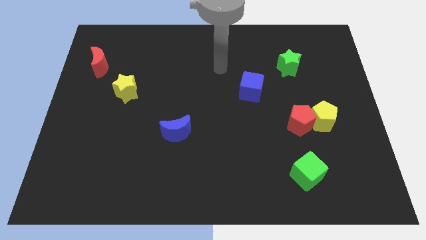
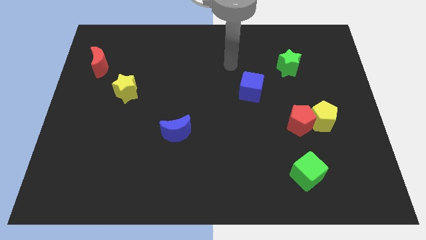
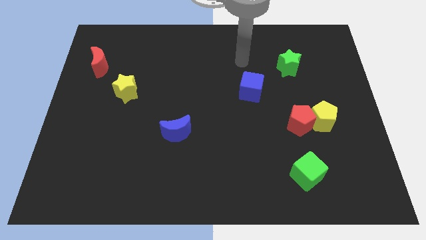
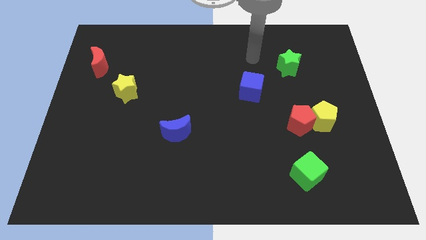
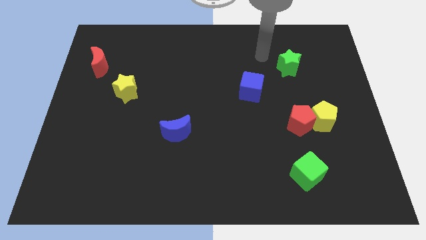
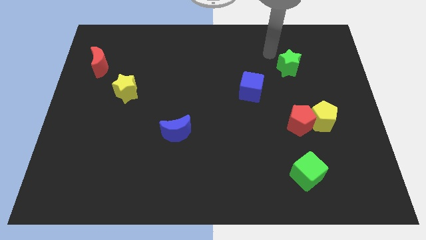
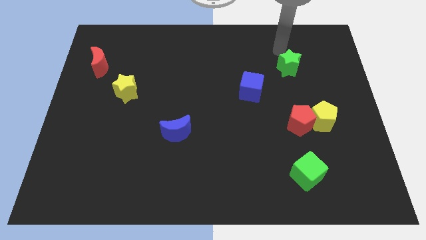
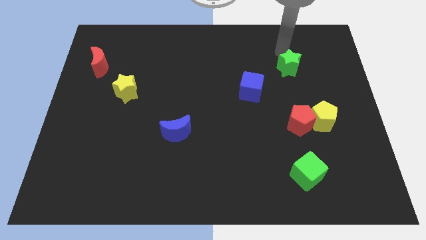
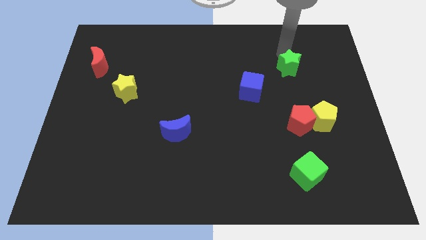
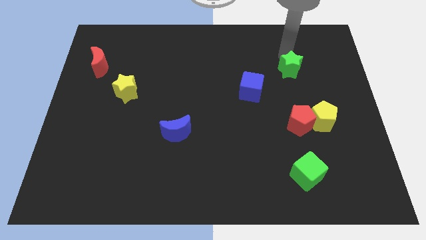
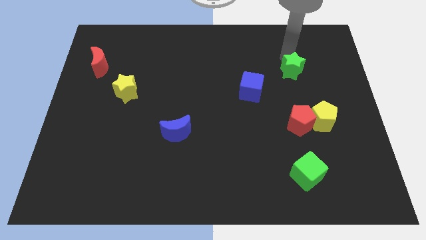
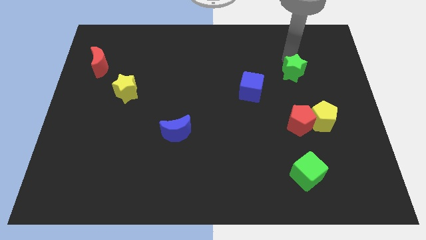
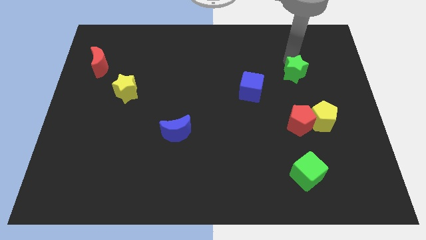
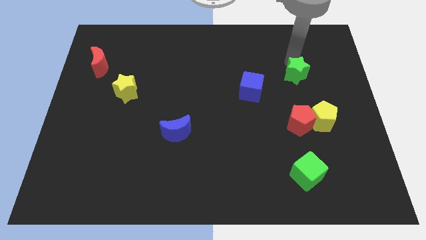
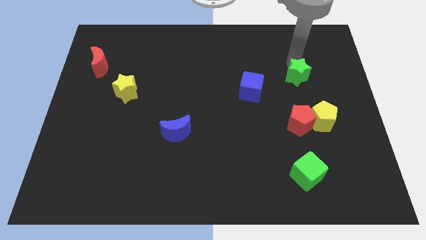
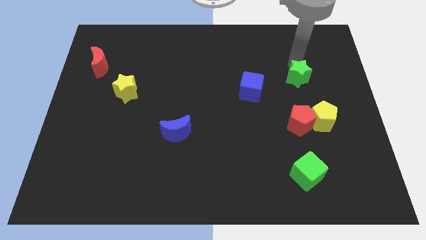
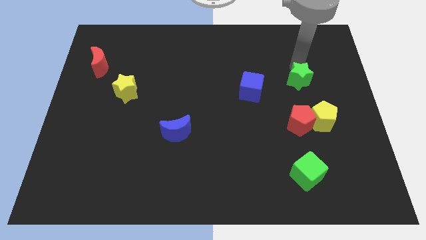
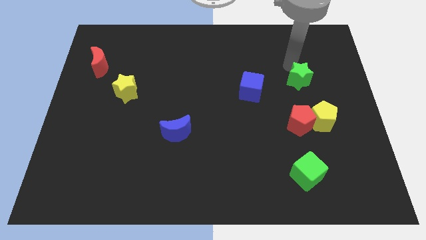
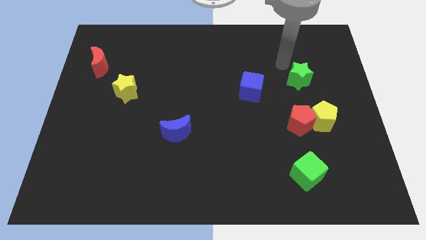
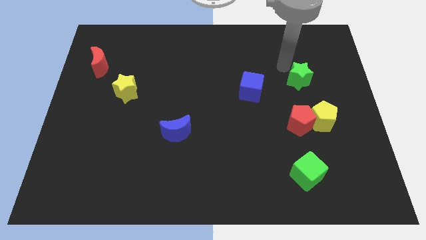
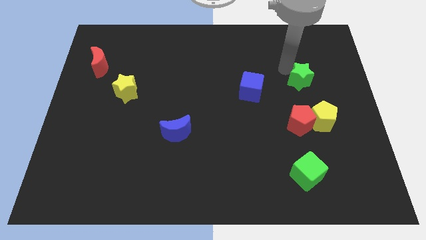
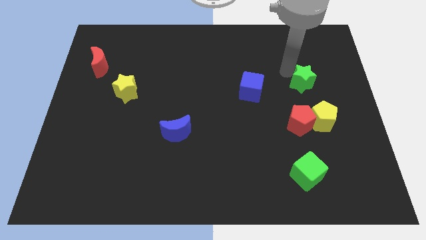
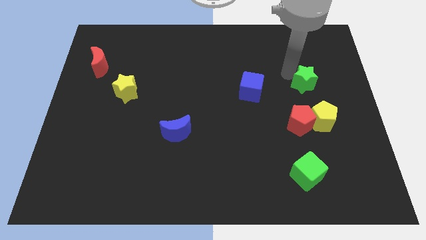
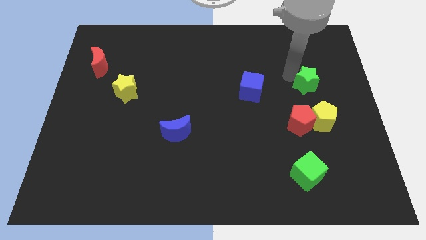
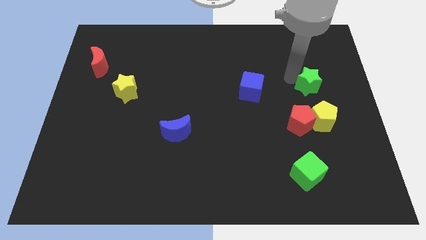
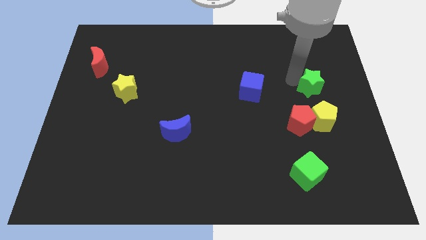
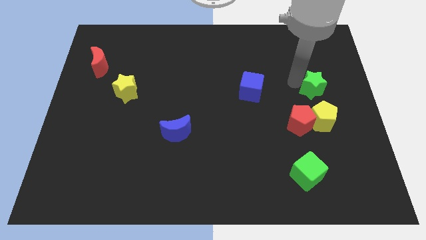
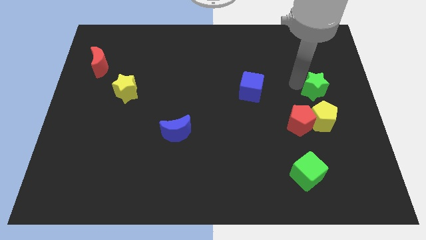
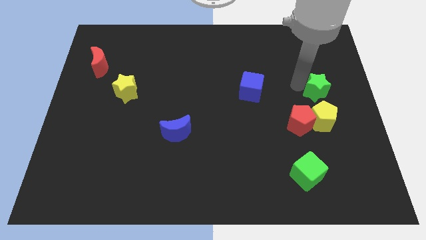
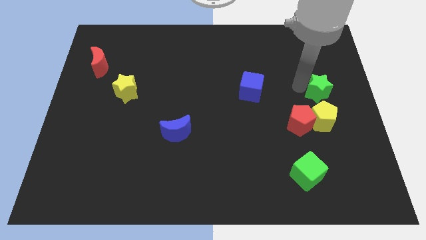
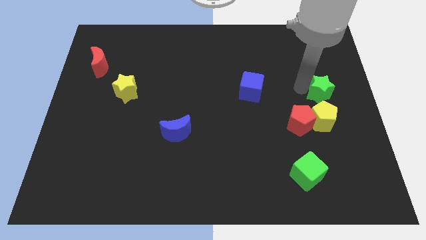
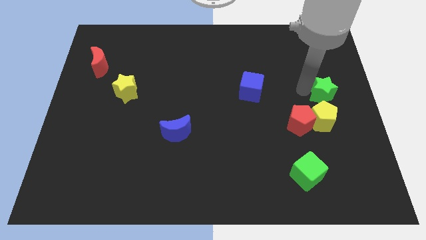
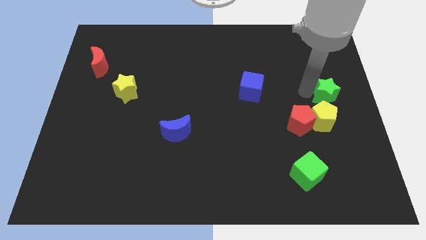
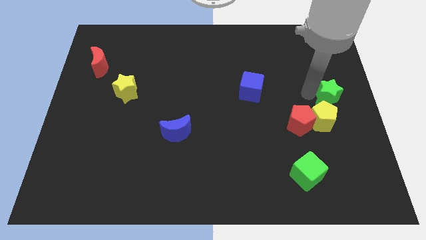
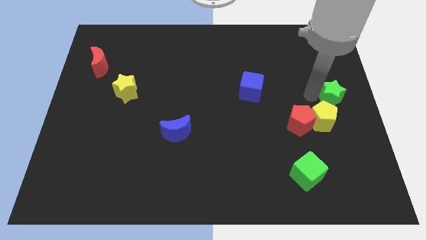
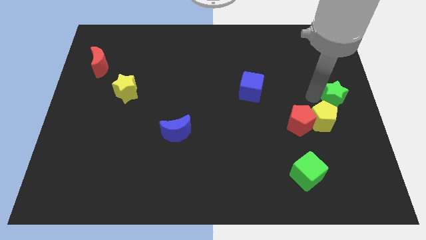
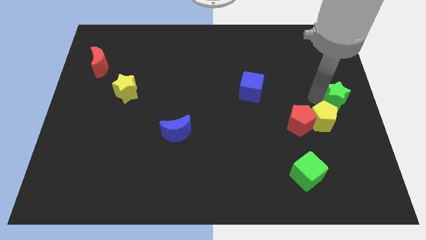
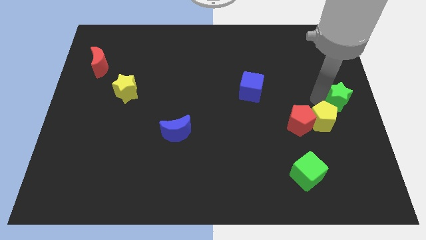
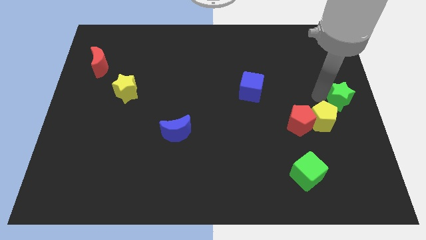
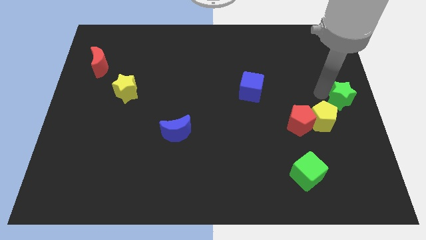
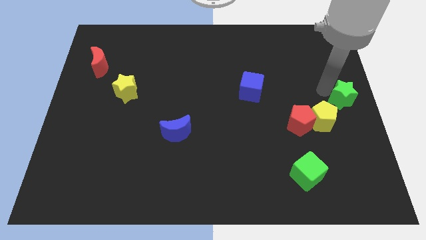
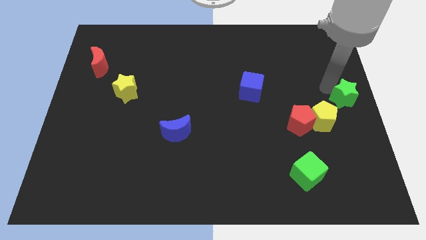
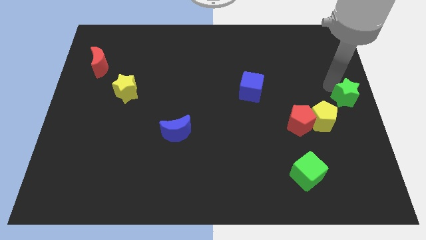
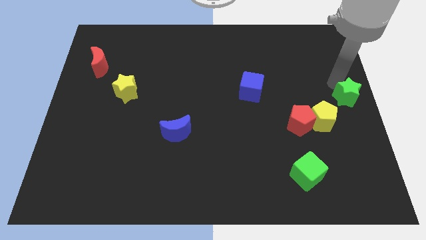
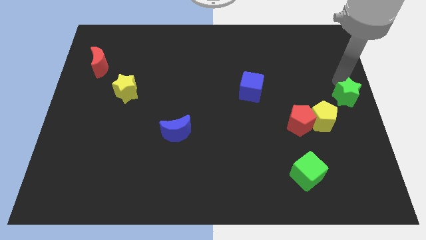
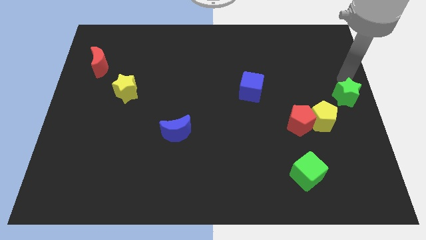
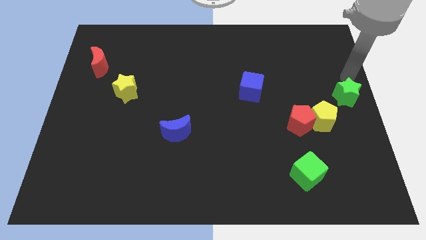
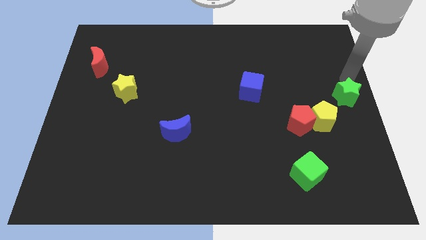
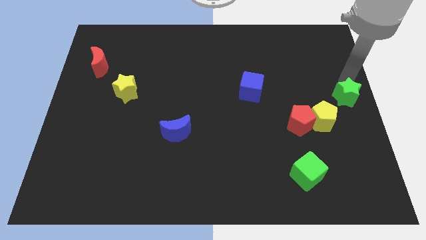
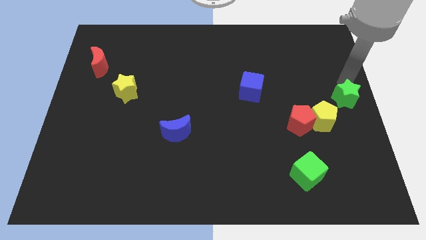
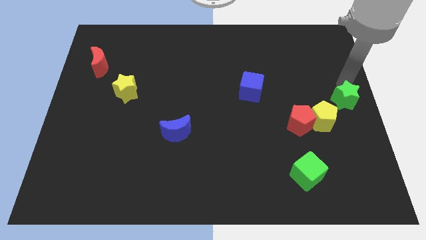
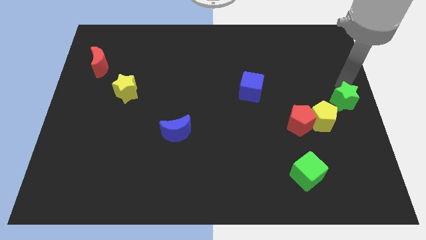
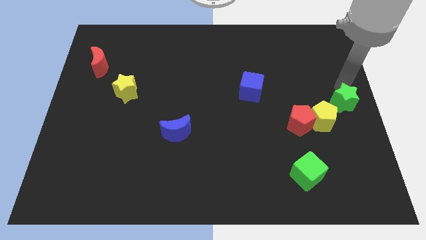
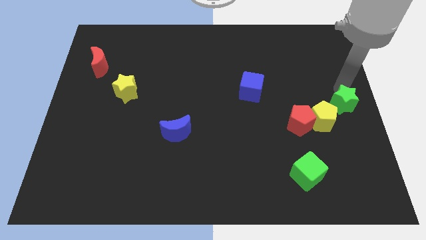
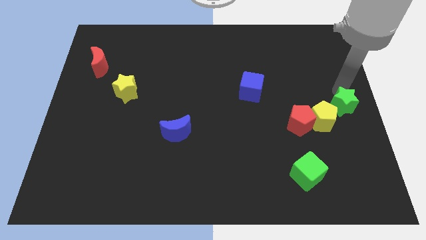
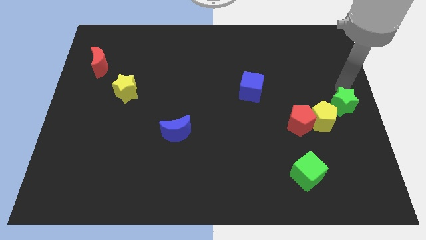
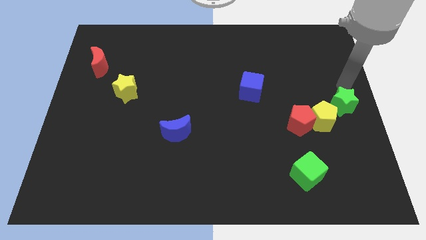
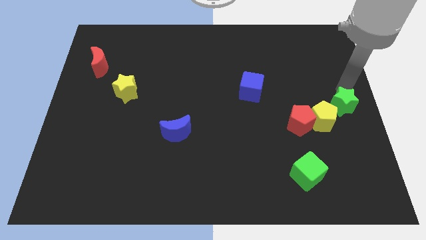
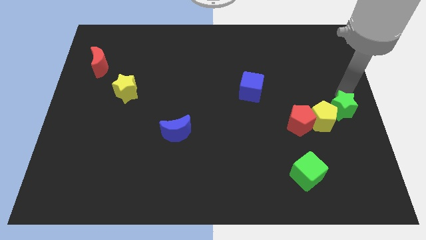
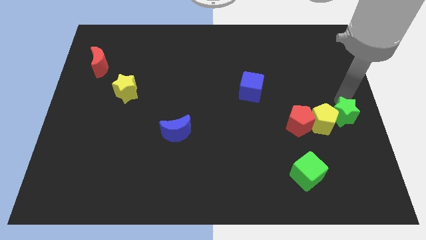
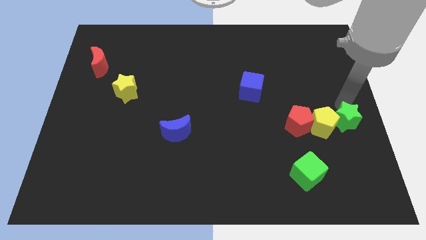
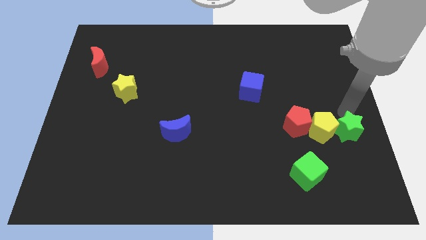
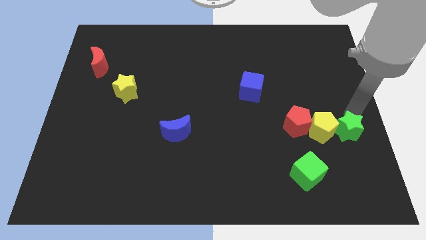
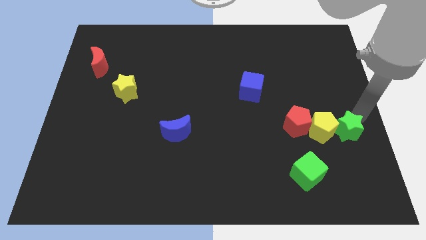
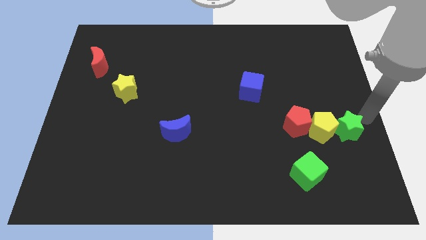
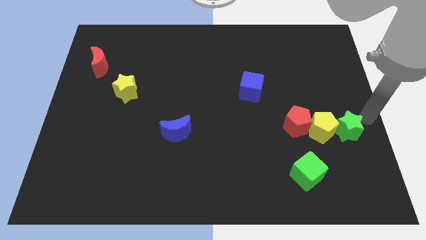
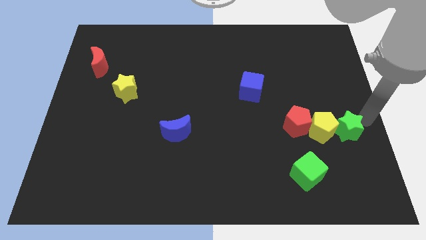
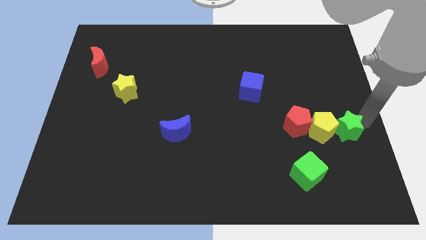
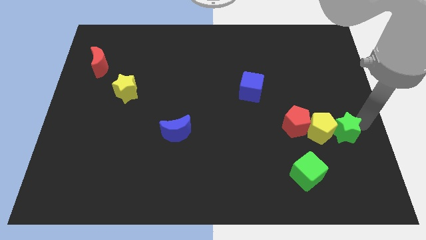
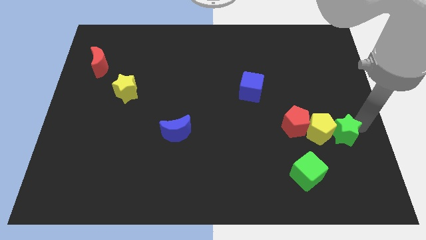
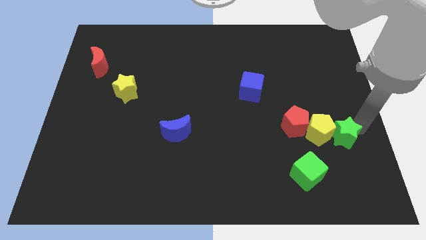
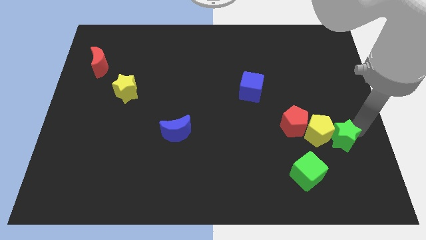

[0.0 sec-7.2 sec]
slide the green star diagonally down and to the right of the red pentagon

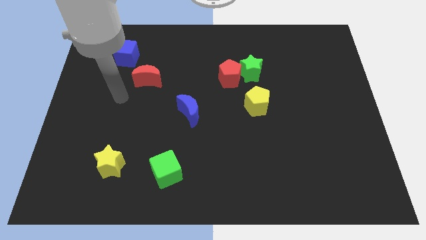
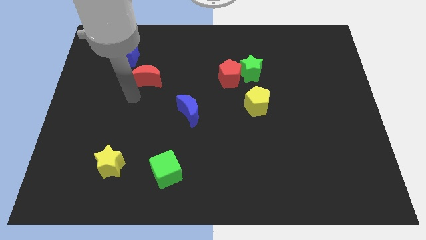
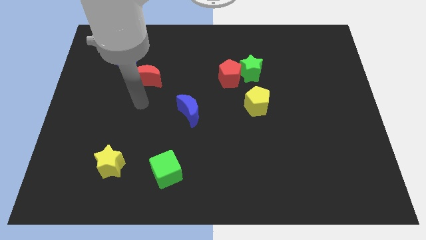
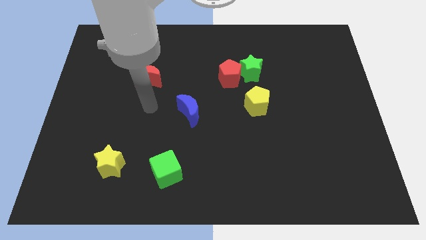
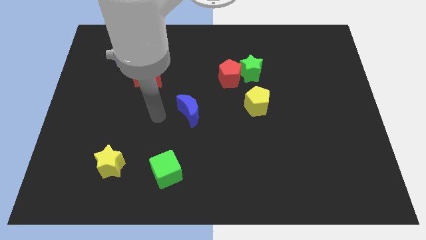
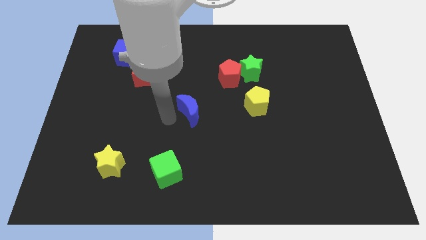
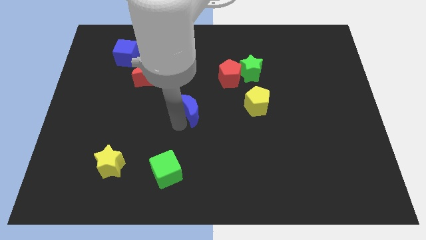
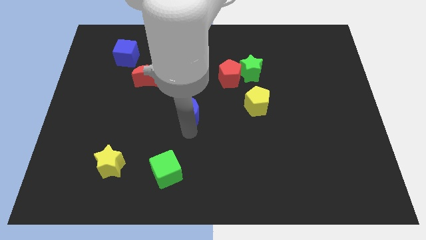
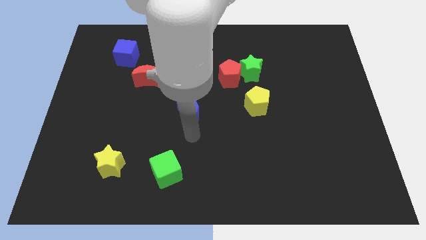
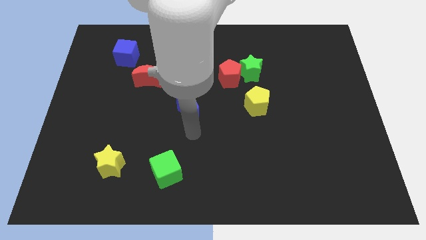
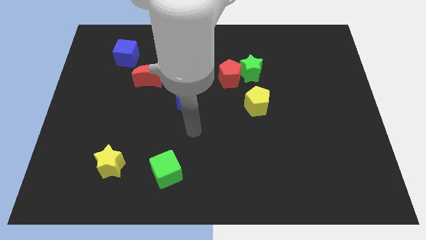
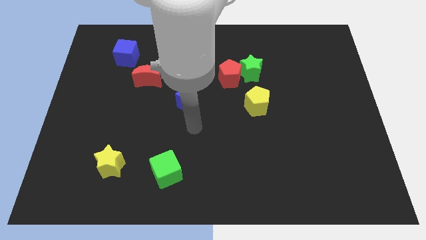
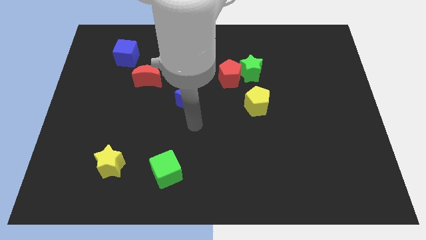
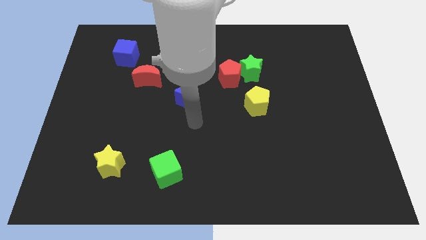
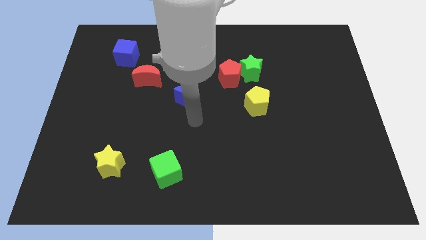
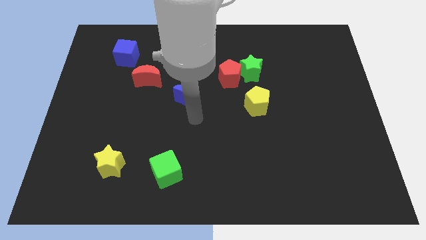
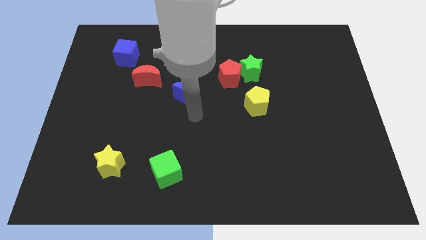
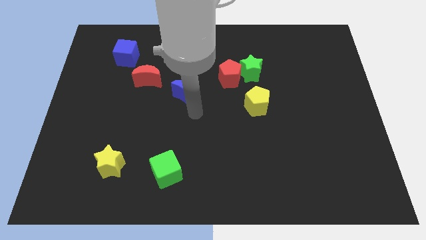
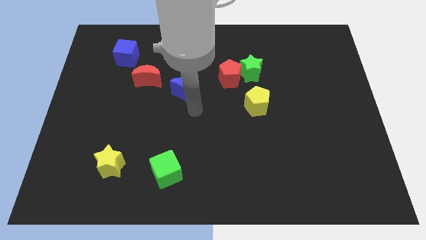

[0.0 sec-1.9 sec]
push the blue moon just right of the red moon
